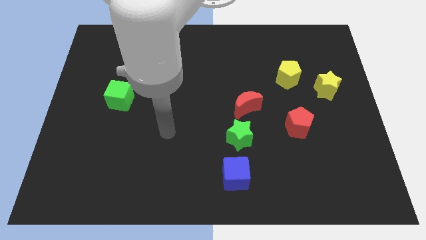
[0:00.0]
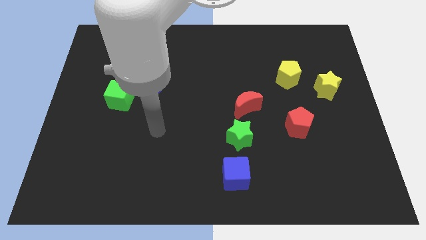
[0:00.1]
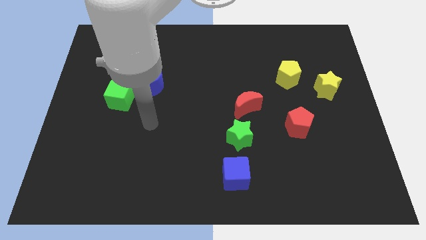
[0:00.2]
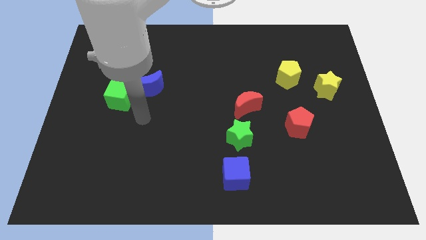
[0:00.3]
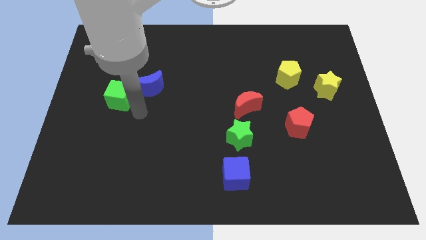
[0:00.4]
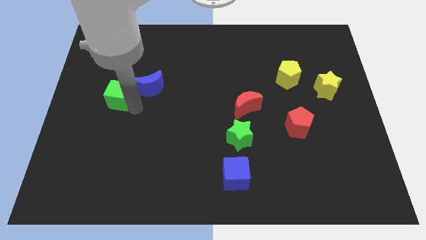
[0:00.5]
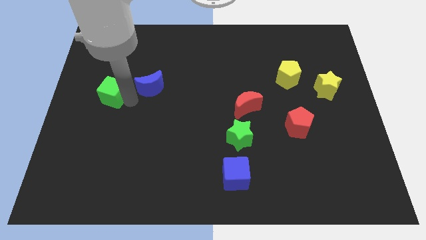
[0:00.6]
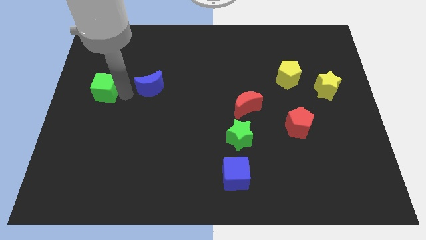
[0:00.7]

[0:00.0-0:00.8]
move the blue moon away from the green cube

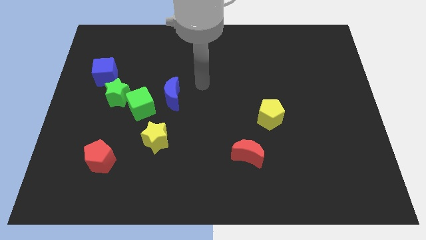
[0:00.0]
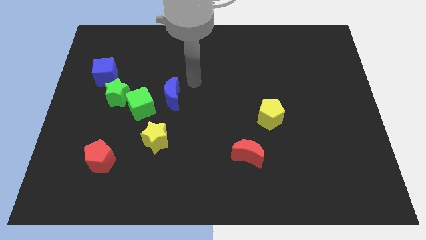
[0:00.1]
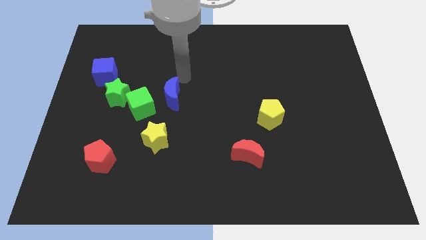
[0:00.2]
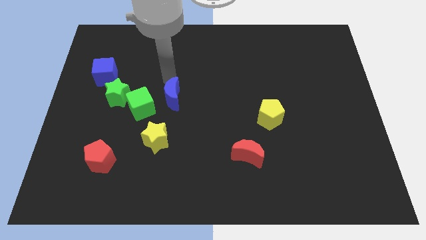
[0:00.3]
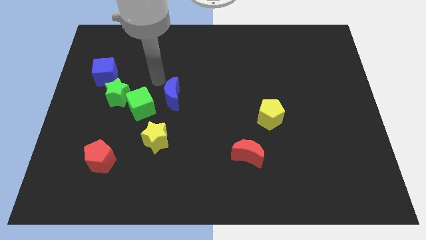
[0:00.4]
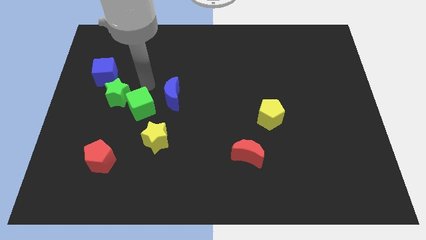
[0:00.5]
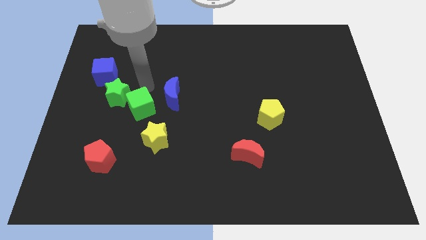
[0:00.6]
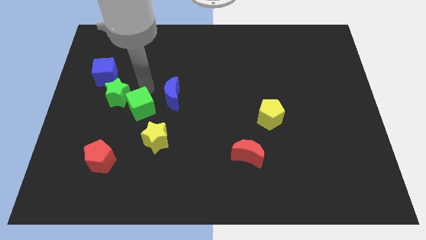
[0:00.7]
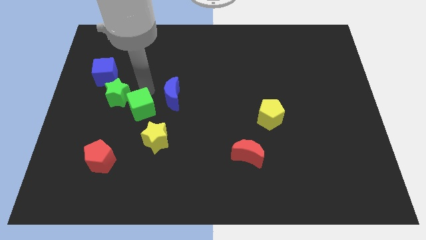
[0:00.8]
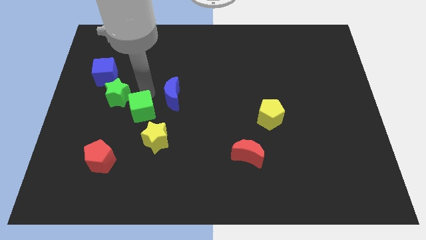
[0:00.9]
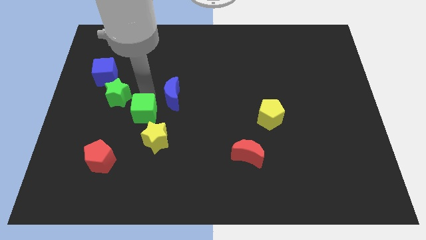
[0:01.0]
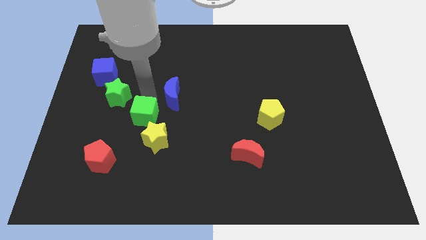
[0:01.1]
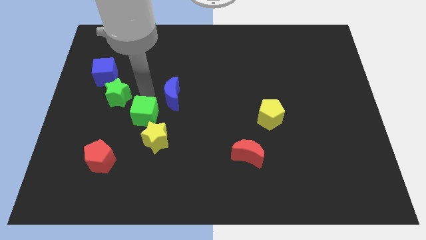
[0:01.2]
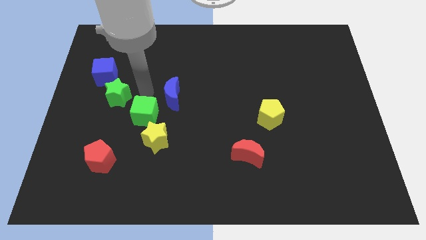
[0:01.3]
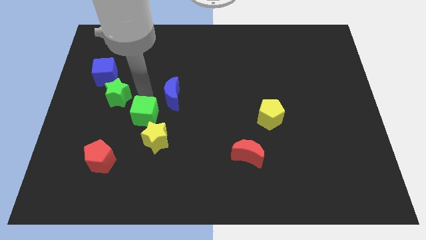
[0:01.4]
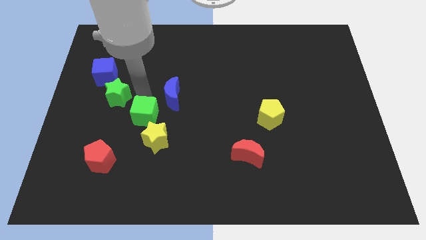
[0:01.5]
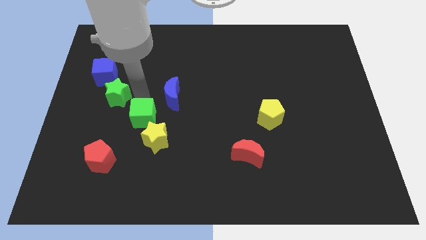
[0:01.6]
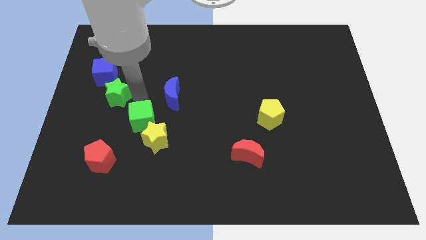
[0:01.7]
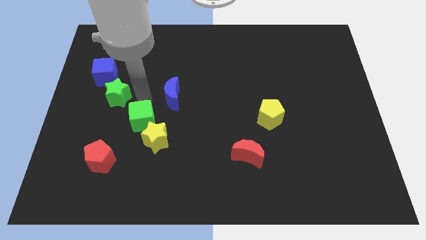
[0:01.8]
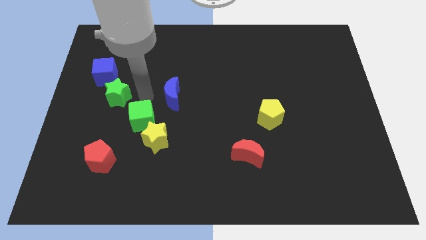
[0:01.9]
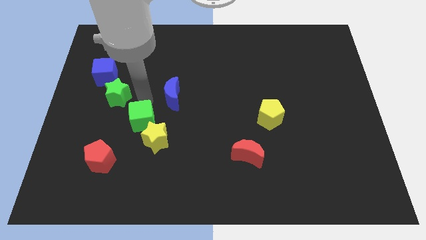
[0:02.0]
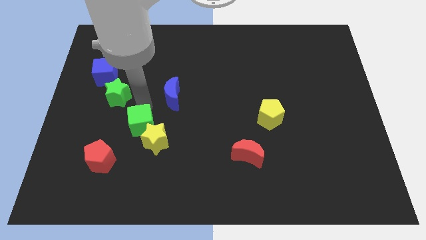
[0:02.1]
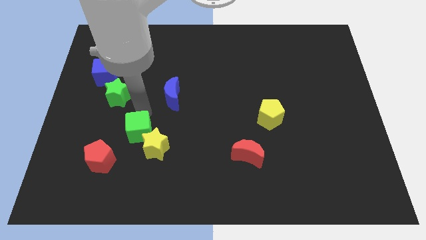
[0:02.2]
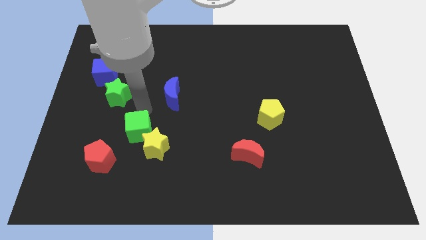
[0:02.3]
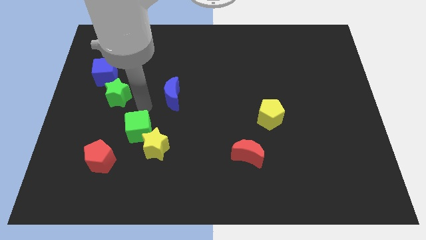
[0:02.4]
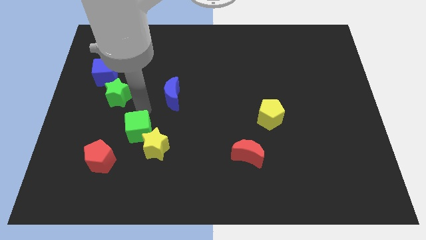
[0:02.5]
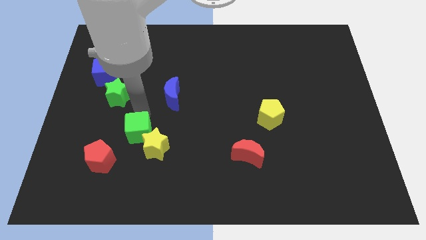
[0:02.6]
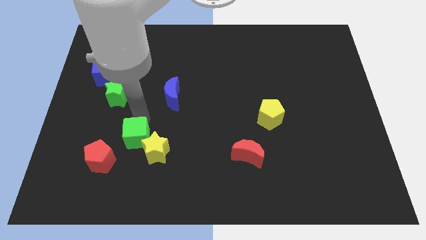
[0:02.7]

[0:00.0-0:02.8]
pull the green cube apart from the green star and blue moon

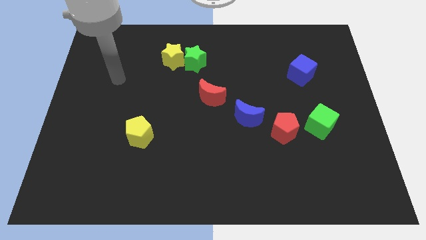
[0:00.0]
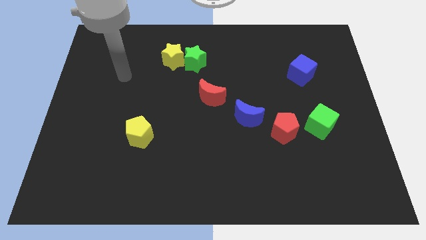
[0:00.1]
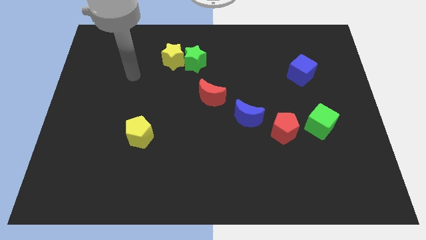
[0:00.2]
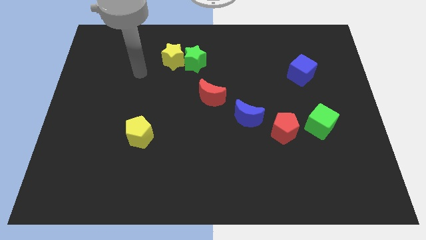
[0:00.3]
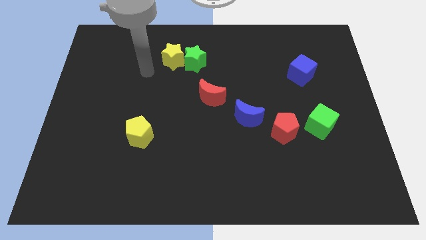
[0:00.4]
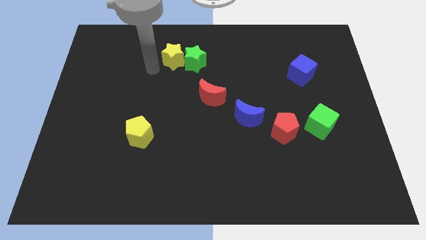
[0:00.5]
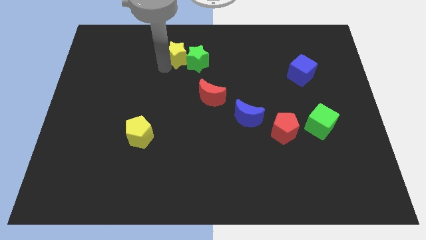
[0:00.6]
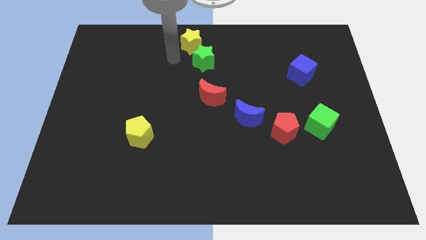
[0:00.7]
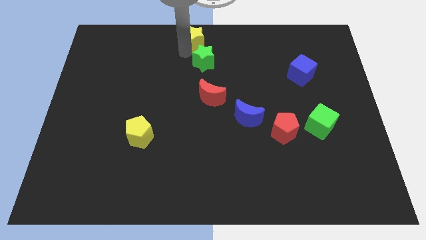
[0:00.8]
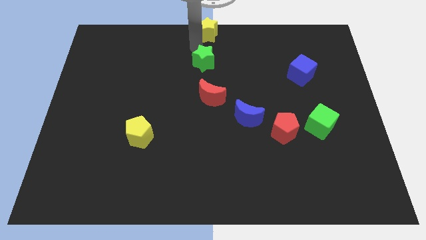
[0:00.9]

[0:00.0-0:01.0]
move the green star away from the yellow star

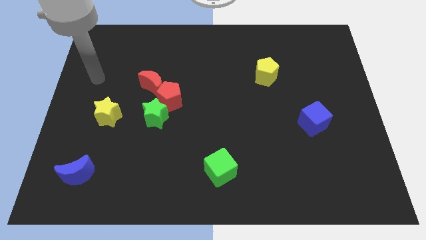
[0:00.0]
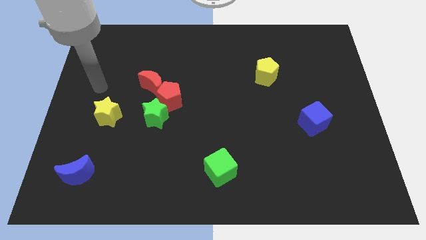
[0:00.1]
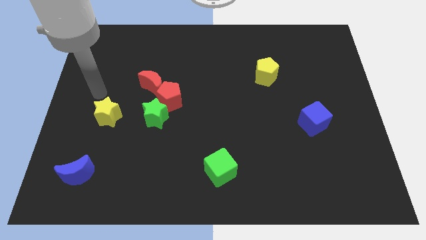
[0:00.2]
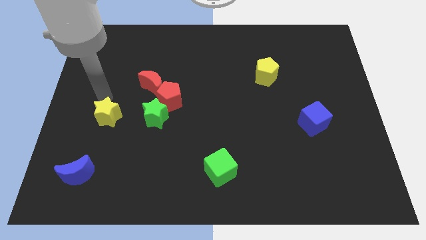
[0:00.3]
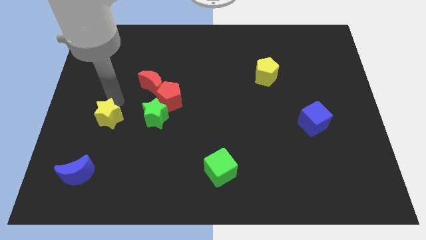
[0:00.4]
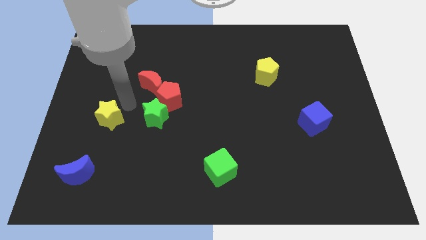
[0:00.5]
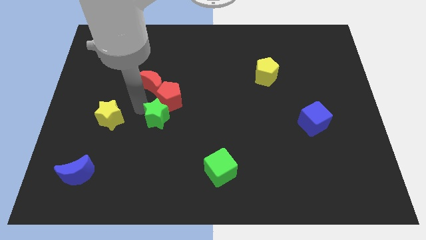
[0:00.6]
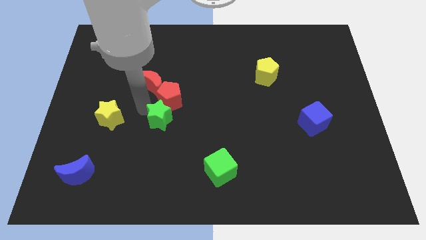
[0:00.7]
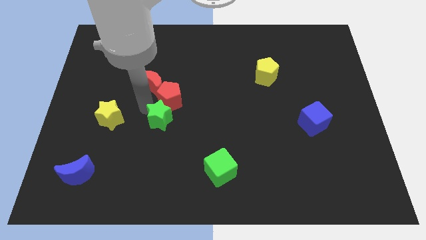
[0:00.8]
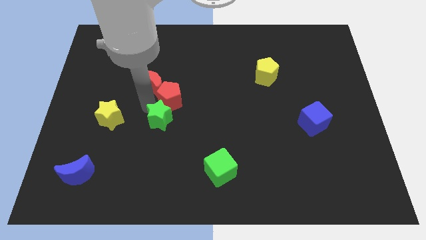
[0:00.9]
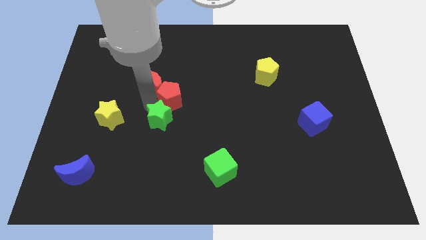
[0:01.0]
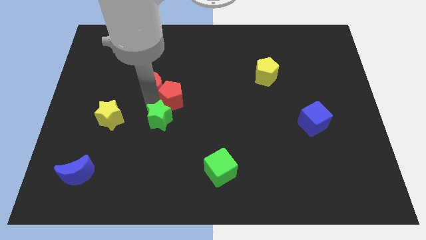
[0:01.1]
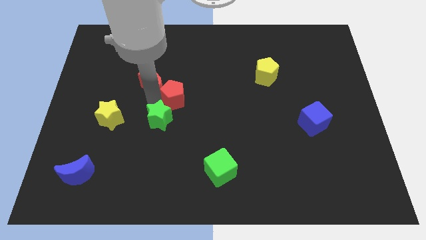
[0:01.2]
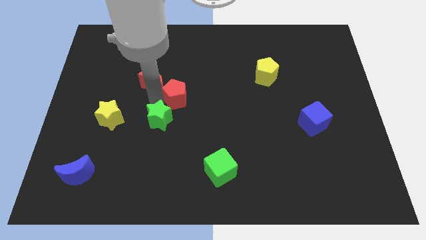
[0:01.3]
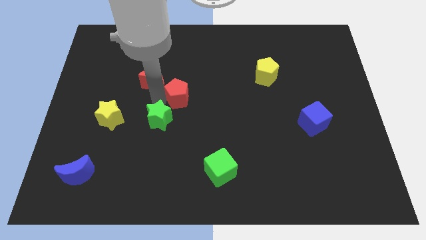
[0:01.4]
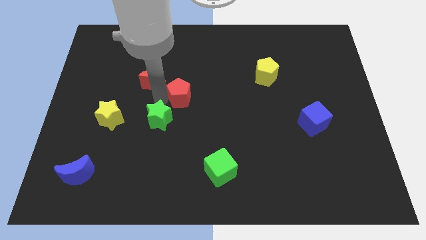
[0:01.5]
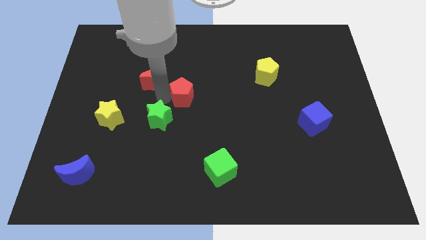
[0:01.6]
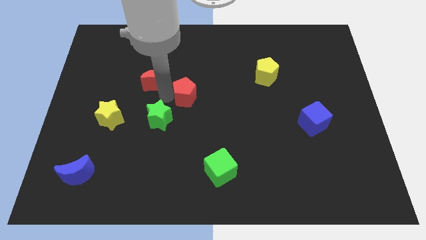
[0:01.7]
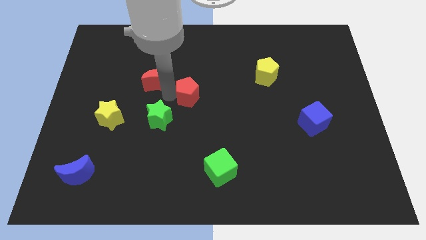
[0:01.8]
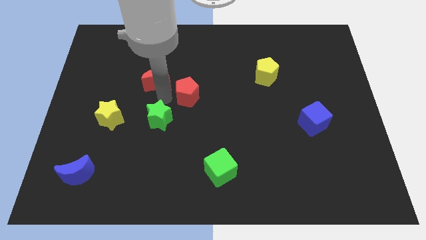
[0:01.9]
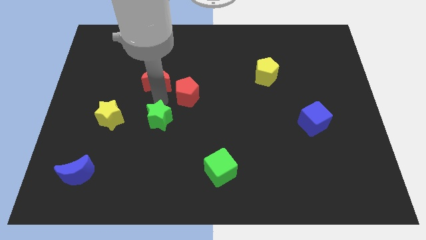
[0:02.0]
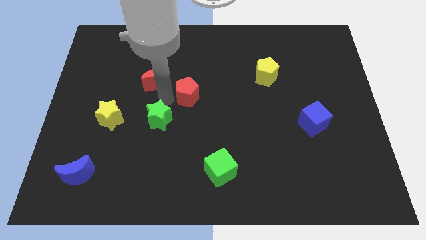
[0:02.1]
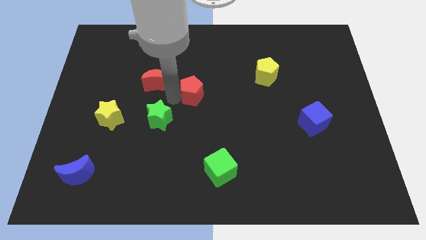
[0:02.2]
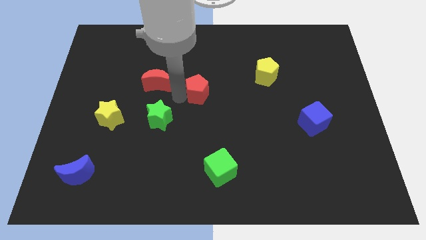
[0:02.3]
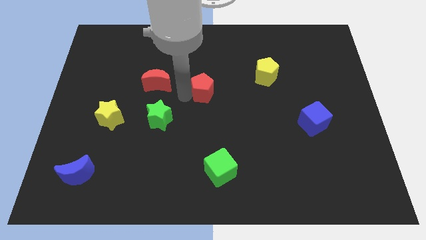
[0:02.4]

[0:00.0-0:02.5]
separate the red pentagon from the green star and red moon

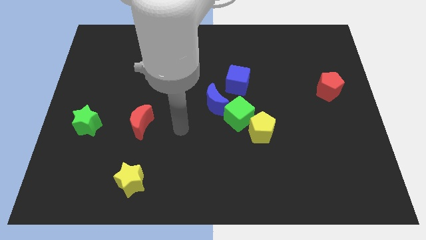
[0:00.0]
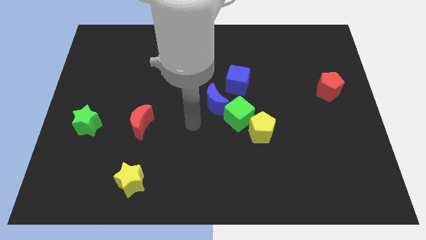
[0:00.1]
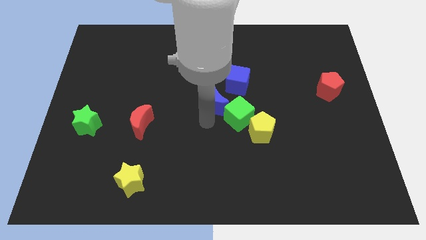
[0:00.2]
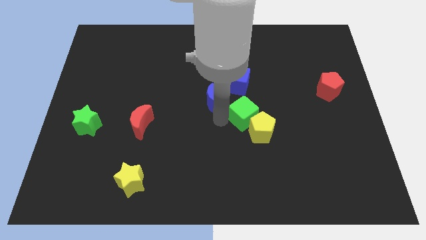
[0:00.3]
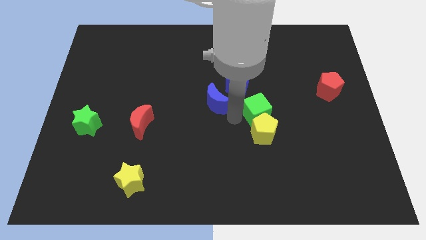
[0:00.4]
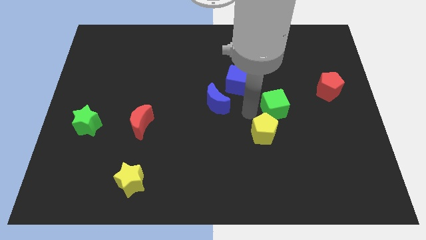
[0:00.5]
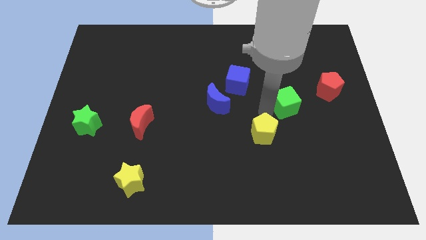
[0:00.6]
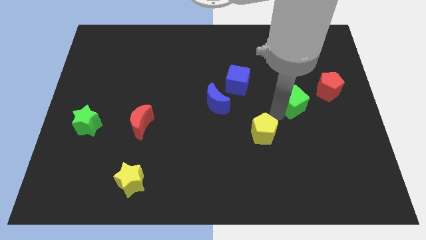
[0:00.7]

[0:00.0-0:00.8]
separate the yellow pentagon from the green cube

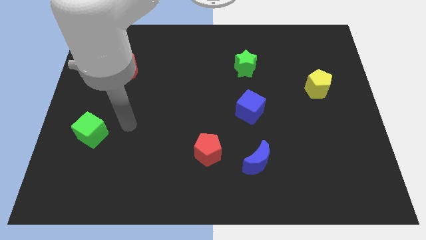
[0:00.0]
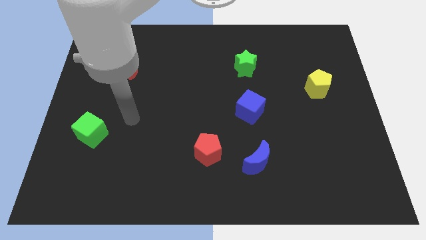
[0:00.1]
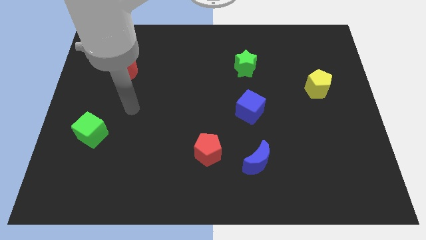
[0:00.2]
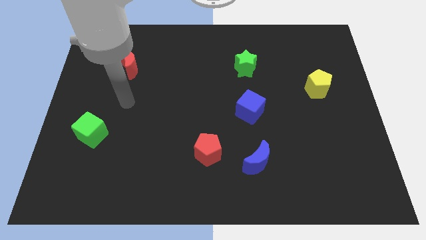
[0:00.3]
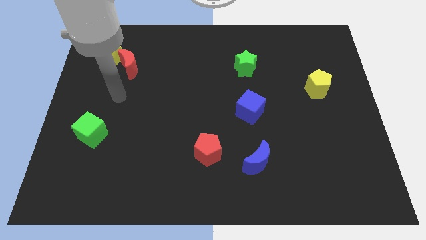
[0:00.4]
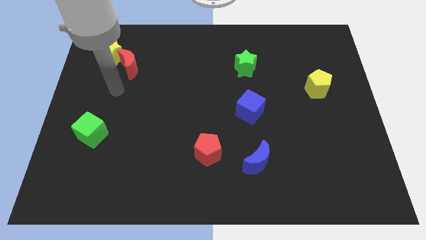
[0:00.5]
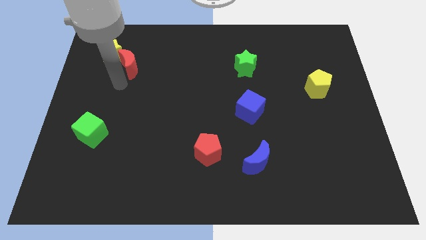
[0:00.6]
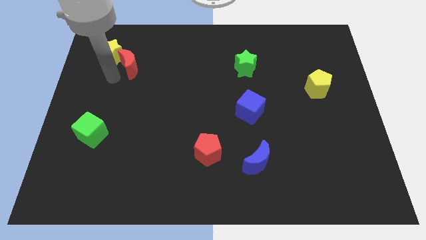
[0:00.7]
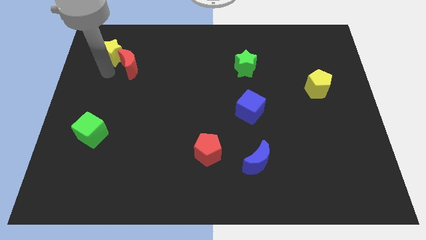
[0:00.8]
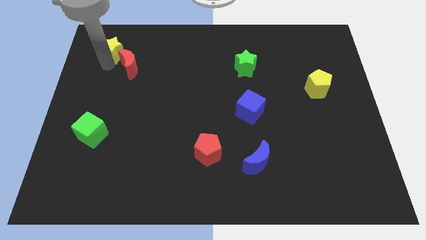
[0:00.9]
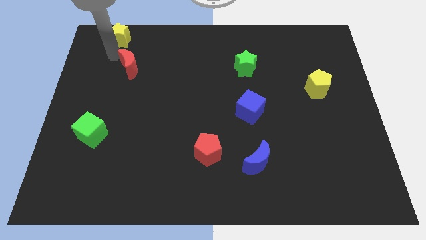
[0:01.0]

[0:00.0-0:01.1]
separate the red moon from the yellow star

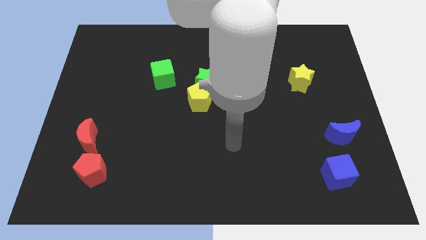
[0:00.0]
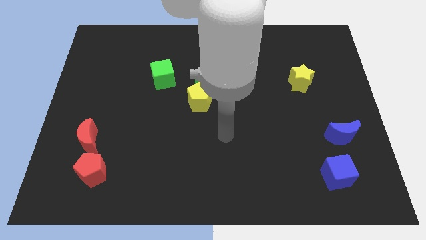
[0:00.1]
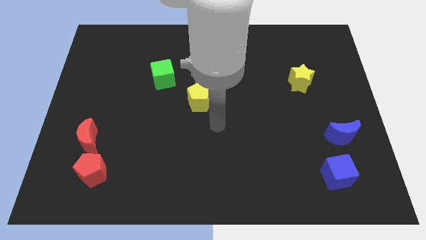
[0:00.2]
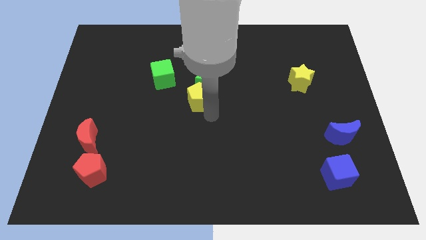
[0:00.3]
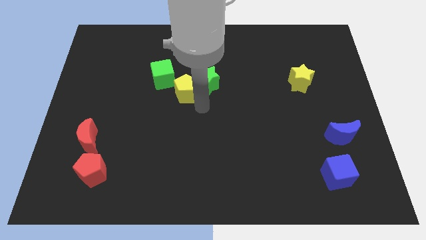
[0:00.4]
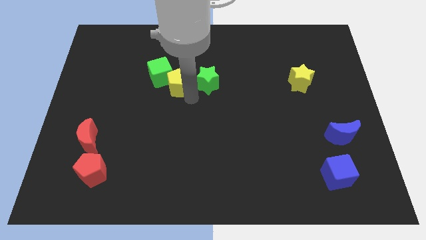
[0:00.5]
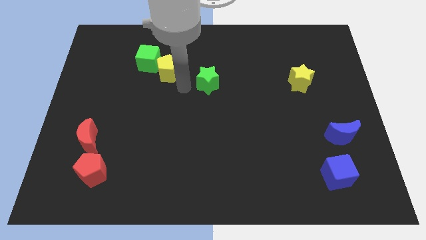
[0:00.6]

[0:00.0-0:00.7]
pull the green star apart from the yellow pentagon
